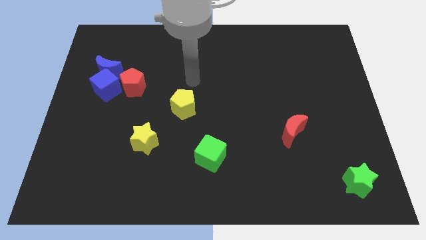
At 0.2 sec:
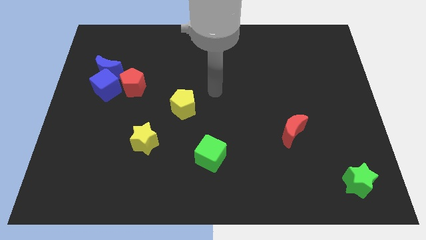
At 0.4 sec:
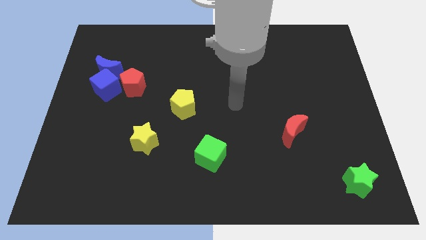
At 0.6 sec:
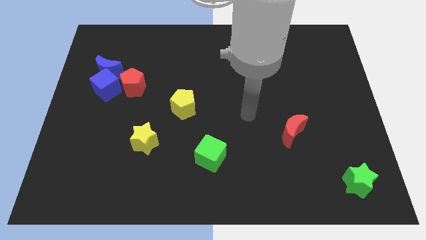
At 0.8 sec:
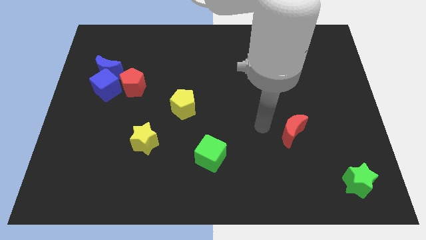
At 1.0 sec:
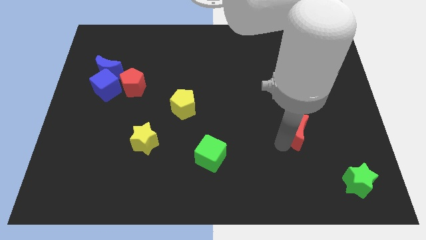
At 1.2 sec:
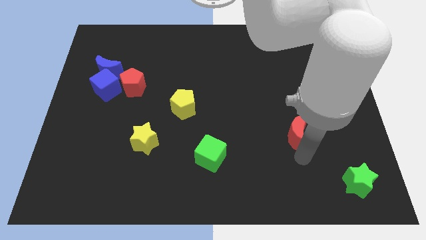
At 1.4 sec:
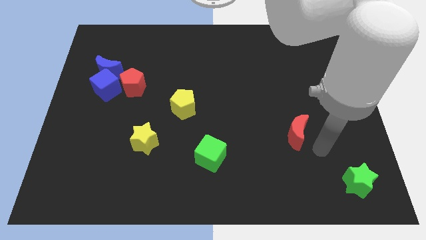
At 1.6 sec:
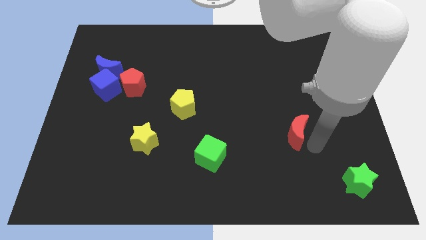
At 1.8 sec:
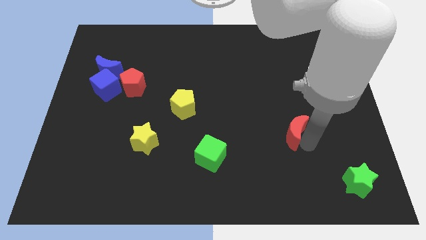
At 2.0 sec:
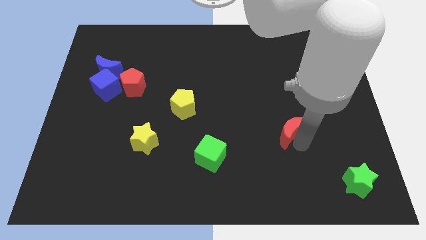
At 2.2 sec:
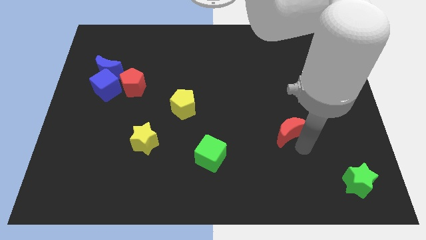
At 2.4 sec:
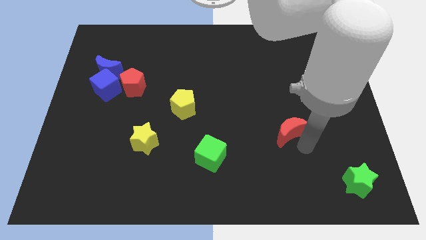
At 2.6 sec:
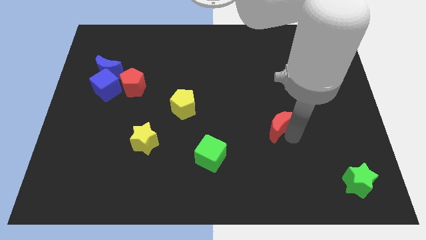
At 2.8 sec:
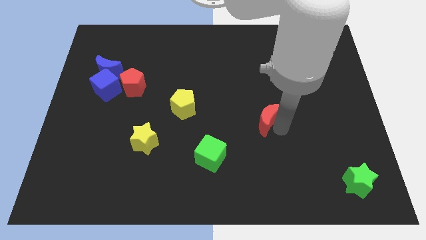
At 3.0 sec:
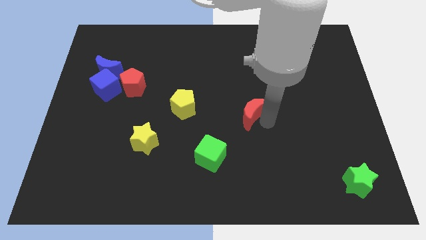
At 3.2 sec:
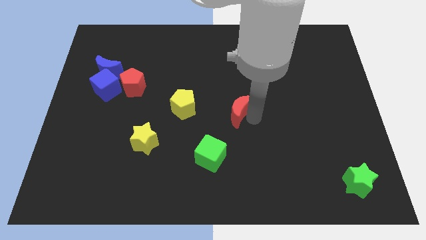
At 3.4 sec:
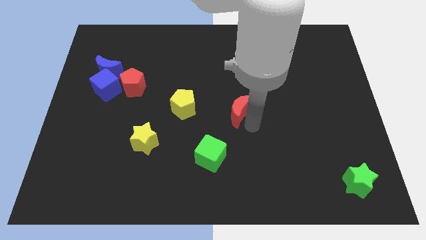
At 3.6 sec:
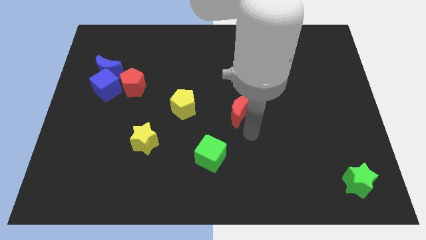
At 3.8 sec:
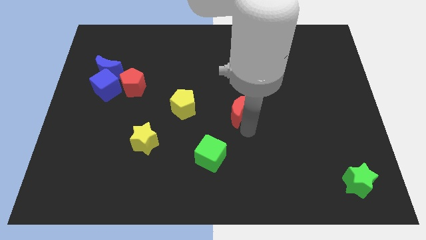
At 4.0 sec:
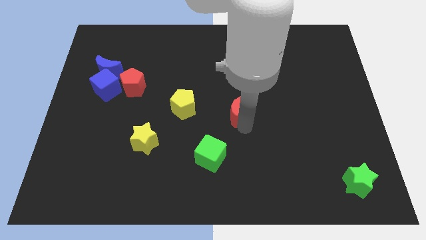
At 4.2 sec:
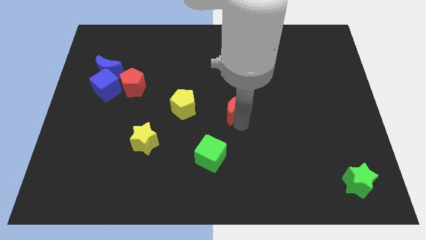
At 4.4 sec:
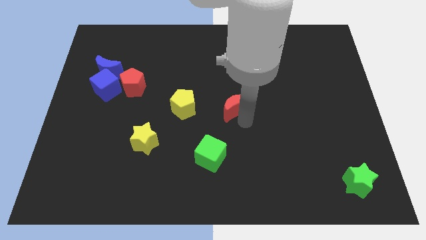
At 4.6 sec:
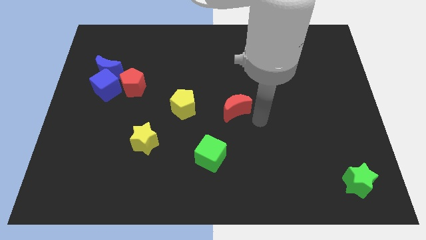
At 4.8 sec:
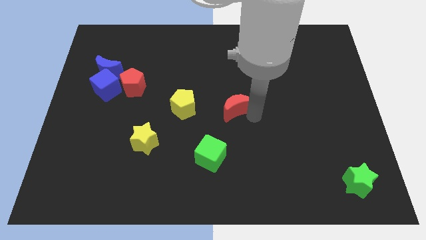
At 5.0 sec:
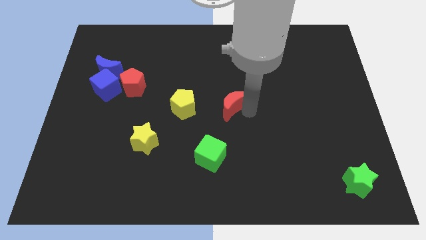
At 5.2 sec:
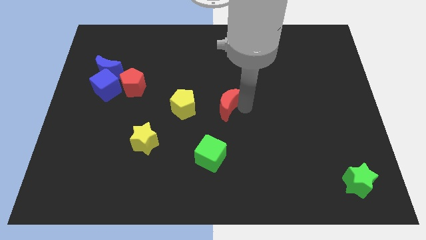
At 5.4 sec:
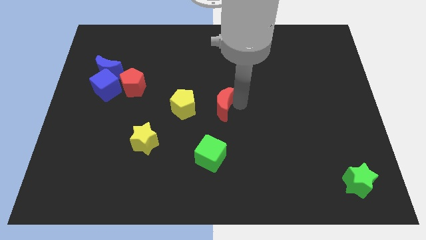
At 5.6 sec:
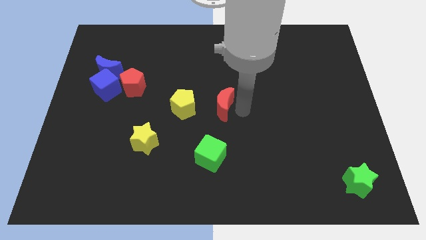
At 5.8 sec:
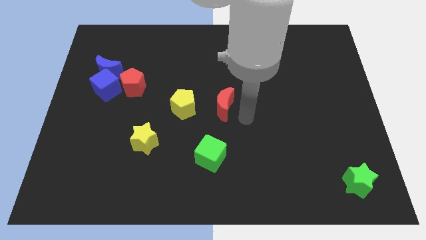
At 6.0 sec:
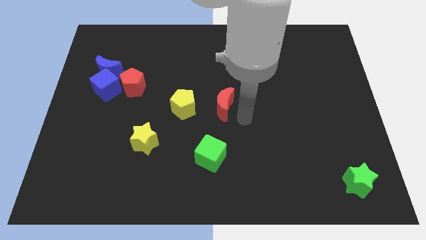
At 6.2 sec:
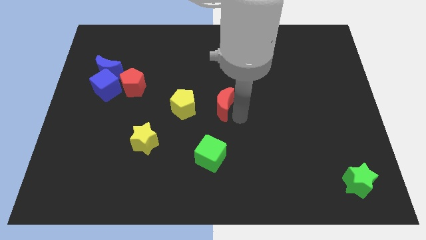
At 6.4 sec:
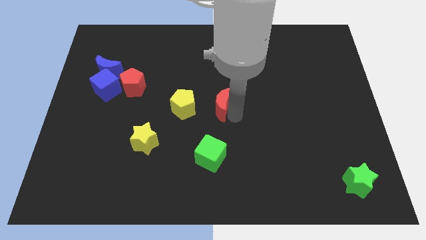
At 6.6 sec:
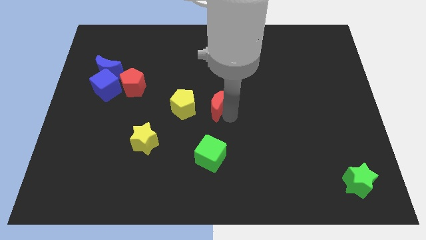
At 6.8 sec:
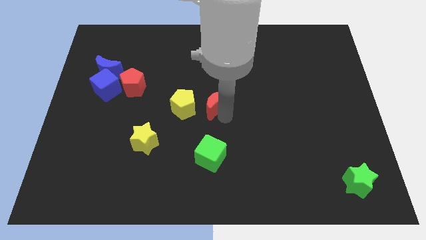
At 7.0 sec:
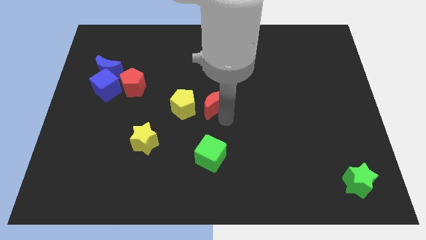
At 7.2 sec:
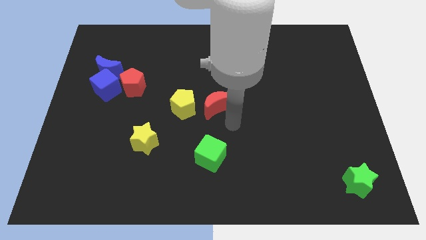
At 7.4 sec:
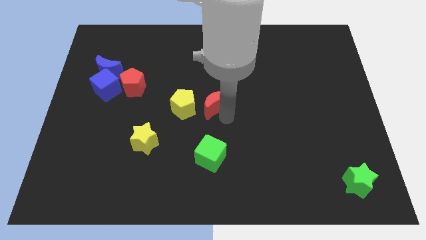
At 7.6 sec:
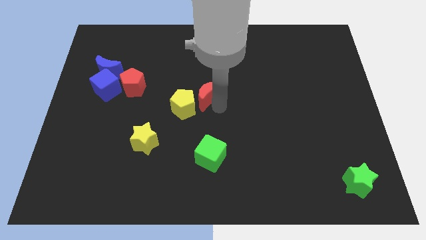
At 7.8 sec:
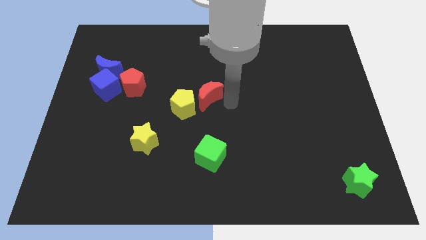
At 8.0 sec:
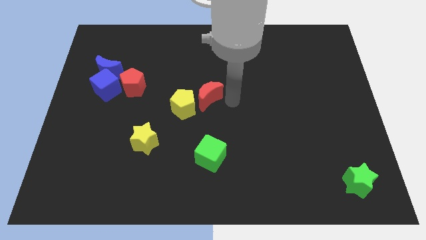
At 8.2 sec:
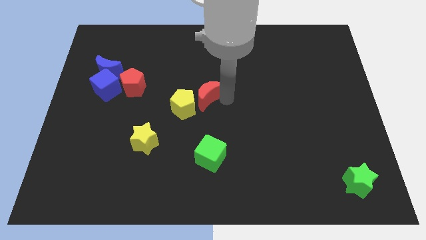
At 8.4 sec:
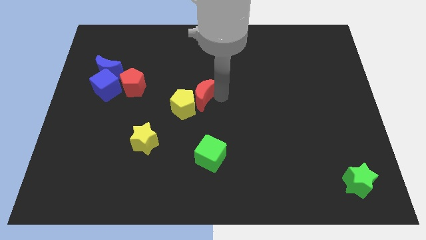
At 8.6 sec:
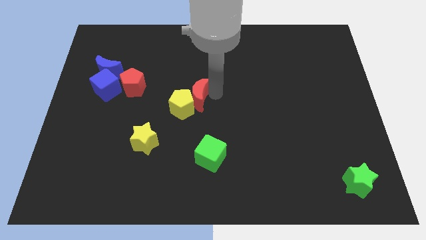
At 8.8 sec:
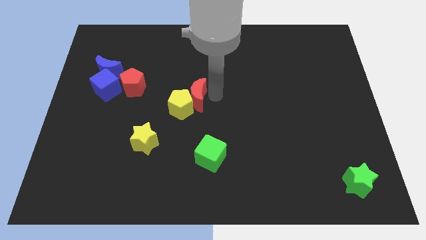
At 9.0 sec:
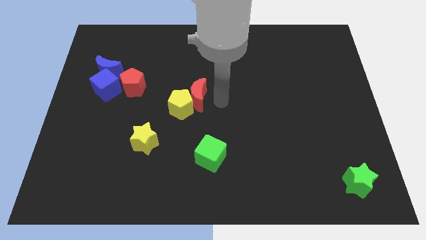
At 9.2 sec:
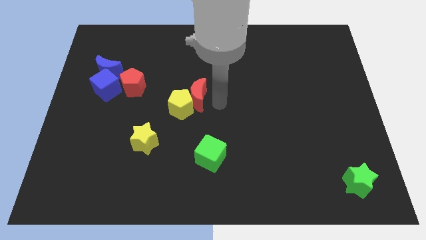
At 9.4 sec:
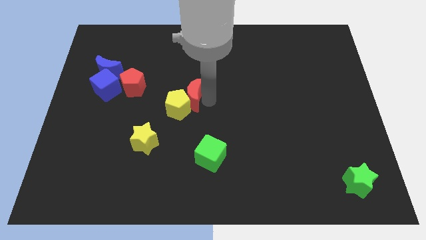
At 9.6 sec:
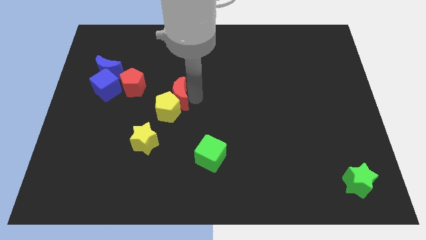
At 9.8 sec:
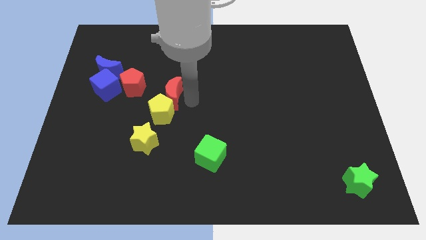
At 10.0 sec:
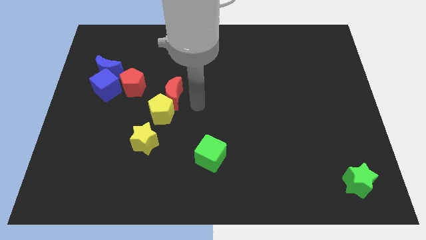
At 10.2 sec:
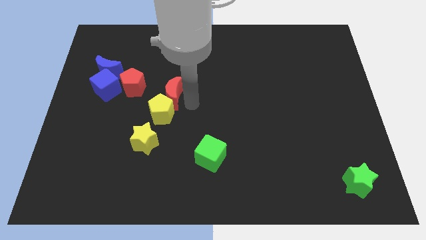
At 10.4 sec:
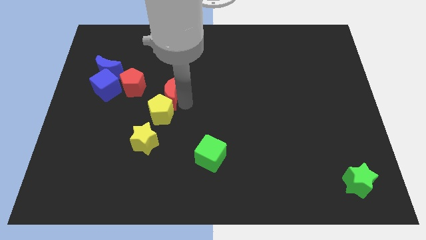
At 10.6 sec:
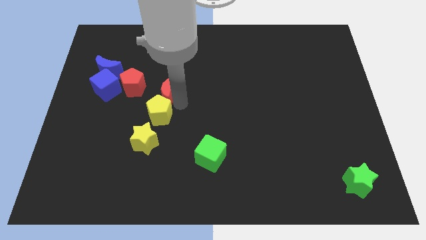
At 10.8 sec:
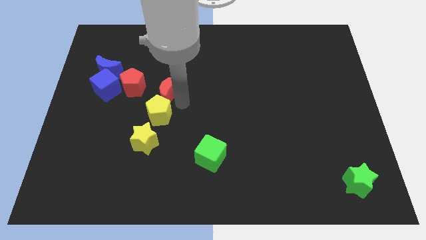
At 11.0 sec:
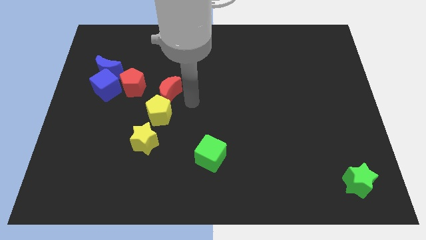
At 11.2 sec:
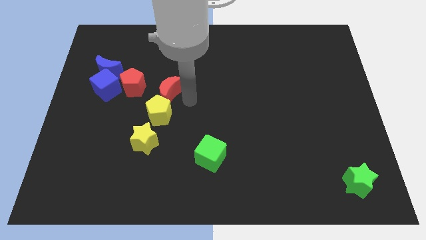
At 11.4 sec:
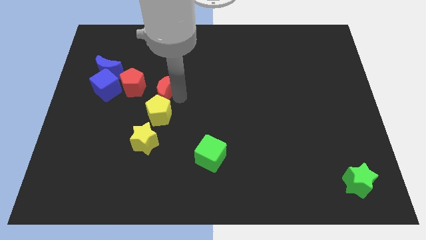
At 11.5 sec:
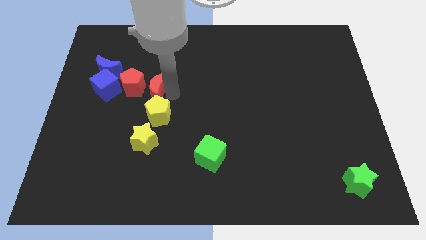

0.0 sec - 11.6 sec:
move the red moon close to the red pentagon

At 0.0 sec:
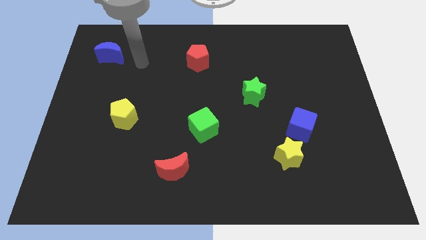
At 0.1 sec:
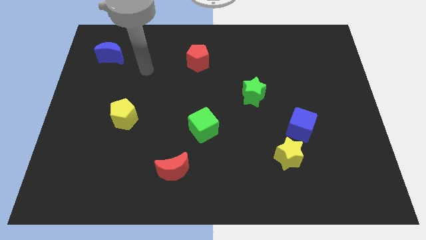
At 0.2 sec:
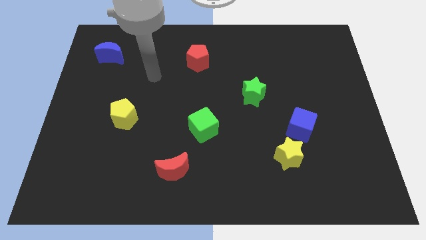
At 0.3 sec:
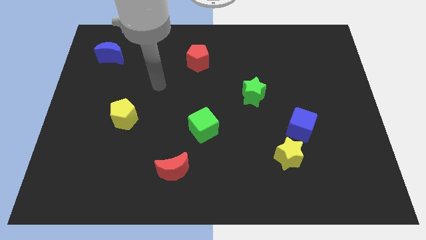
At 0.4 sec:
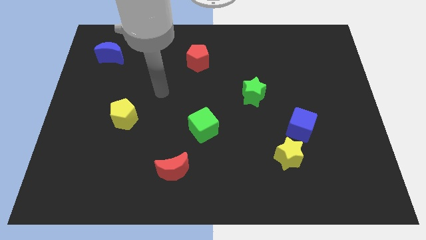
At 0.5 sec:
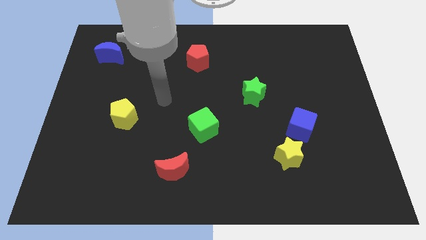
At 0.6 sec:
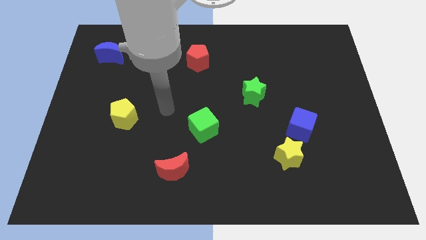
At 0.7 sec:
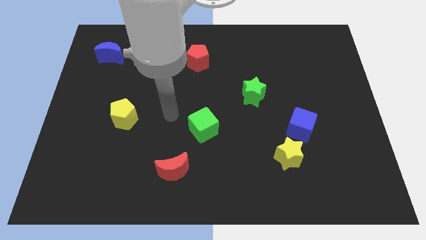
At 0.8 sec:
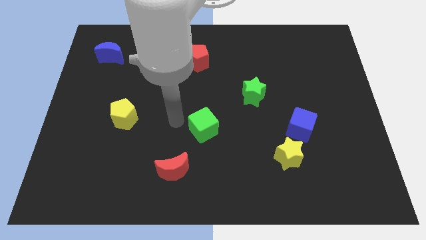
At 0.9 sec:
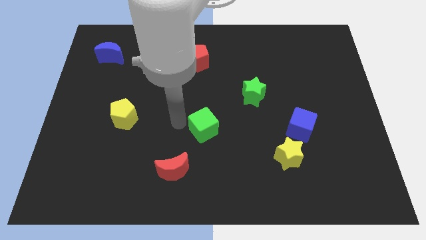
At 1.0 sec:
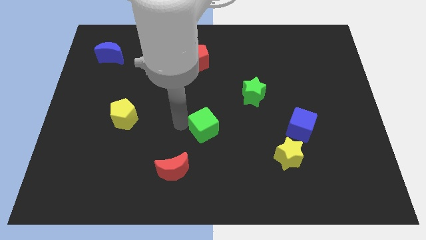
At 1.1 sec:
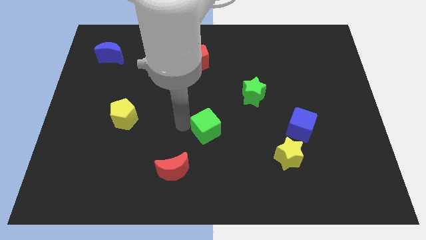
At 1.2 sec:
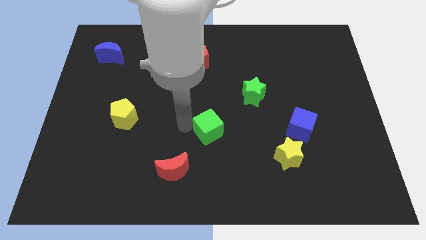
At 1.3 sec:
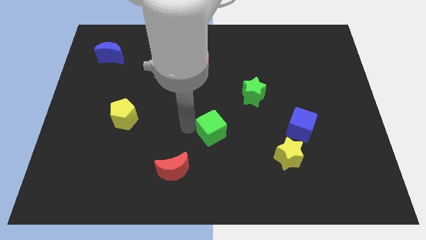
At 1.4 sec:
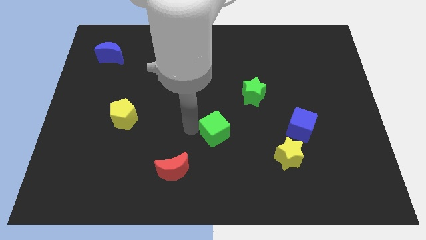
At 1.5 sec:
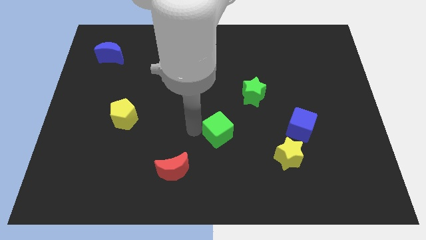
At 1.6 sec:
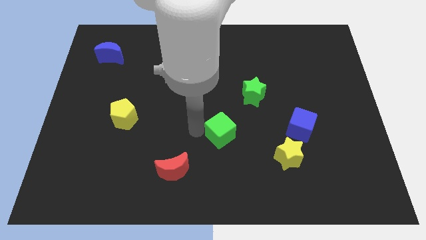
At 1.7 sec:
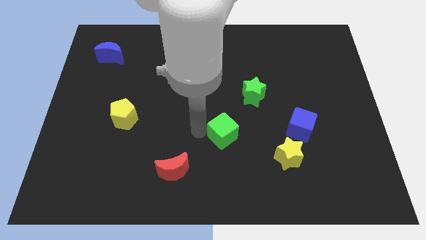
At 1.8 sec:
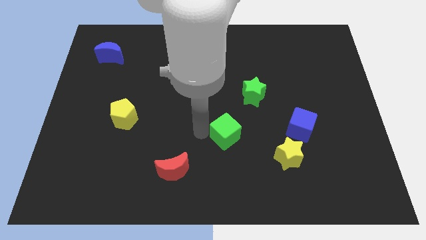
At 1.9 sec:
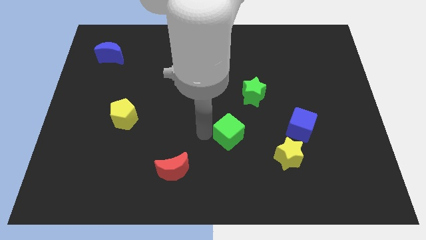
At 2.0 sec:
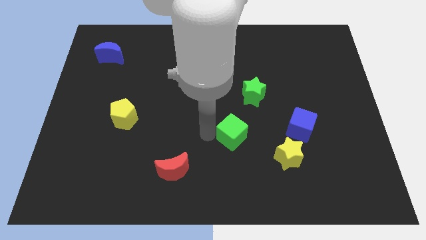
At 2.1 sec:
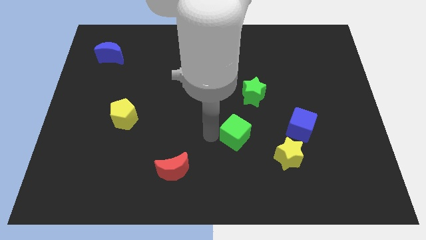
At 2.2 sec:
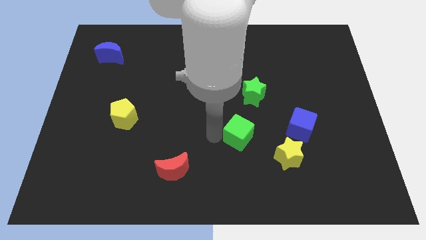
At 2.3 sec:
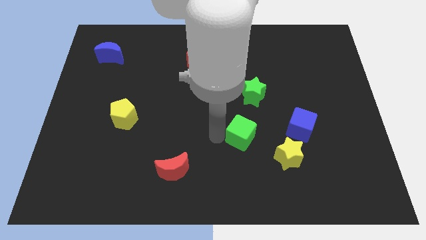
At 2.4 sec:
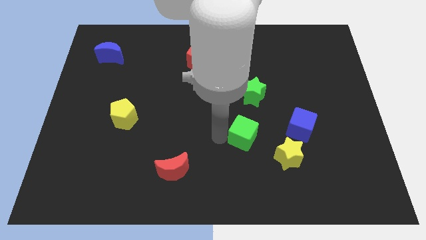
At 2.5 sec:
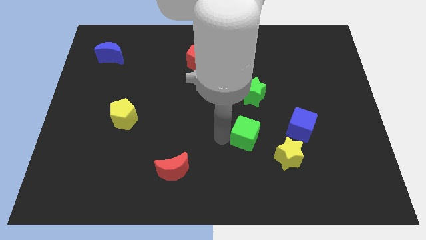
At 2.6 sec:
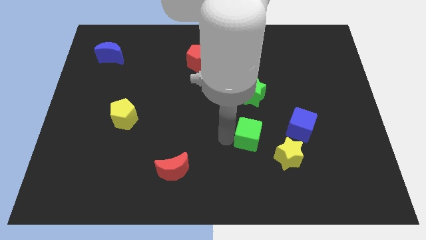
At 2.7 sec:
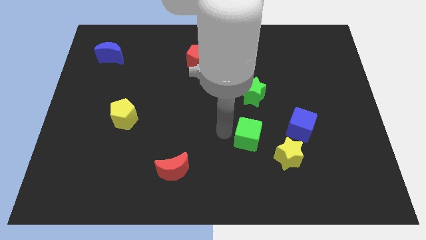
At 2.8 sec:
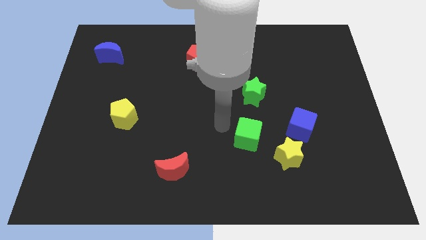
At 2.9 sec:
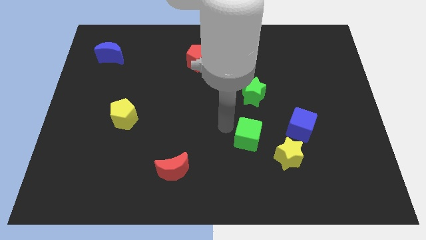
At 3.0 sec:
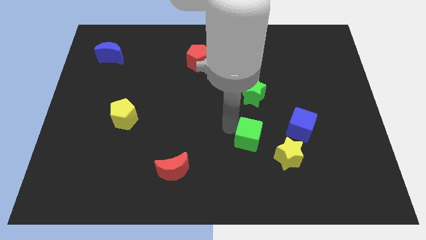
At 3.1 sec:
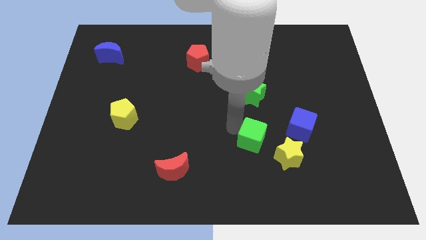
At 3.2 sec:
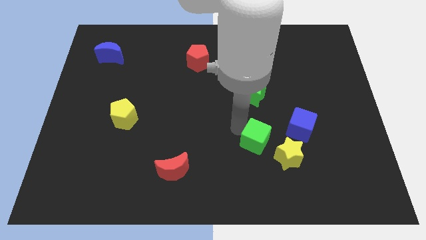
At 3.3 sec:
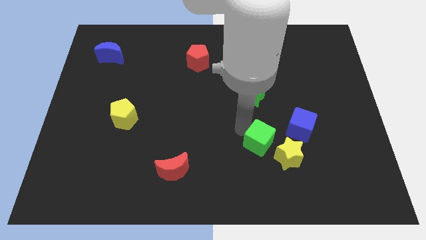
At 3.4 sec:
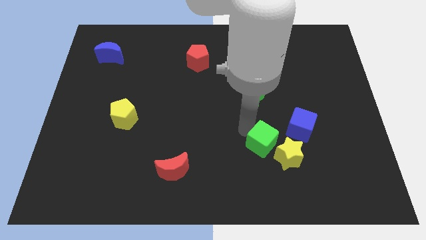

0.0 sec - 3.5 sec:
push the green cube next to the yellow star
